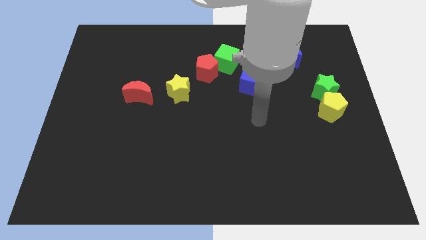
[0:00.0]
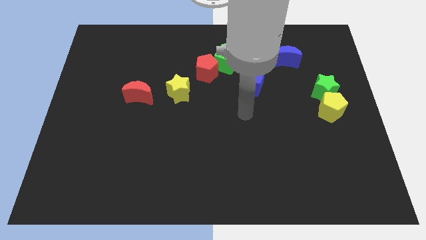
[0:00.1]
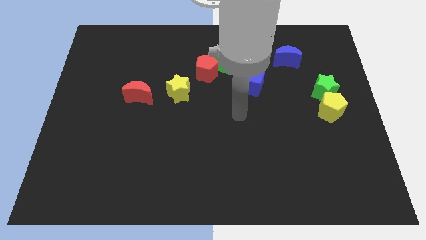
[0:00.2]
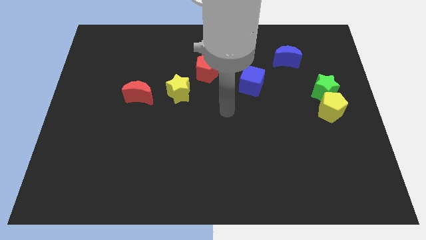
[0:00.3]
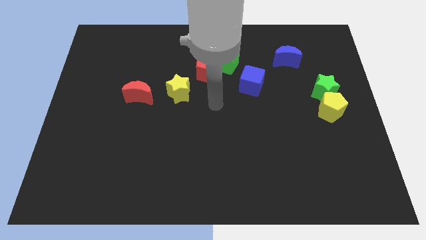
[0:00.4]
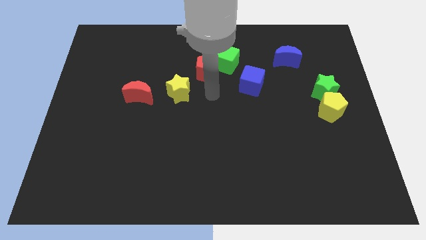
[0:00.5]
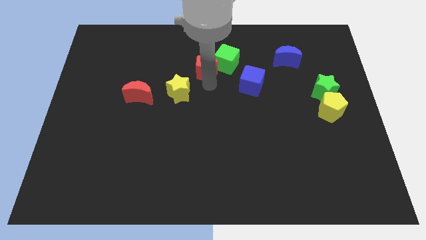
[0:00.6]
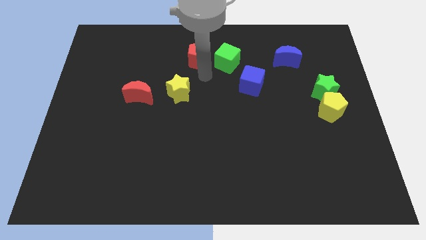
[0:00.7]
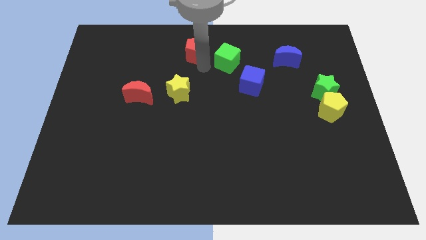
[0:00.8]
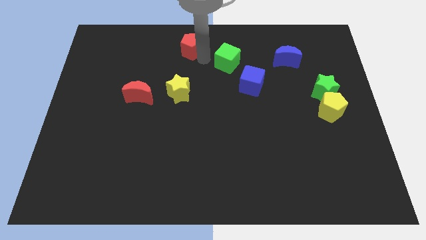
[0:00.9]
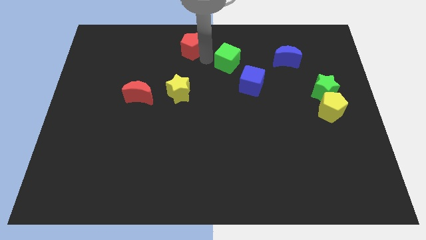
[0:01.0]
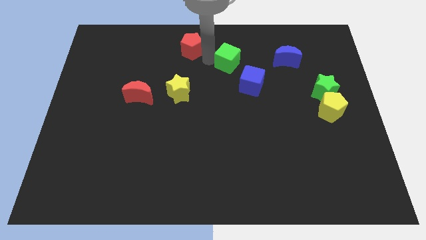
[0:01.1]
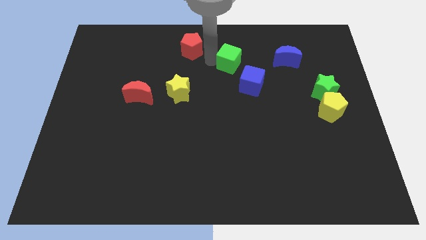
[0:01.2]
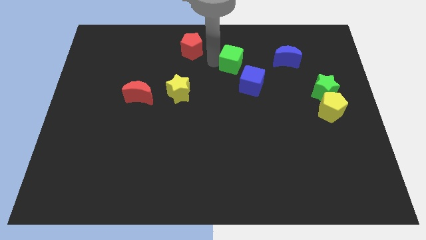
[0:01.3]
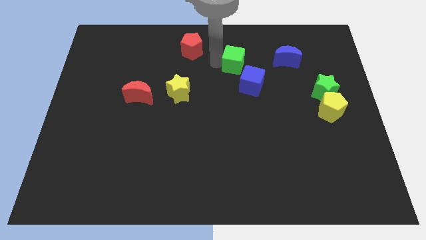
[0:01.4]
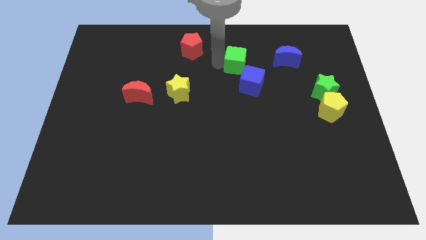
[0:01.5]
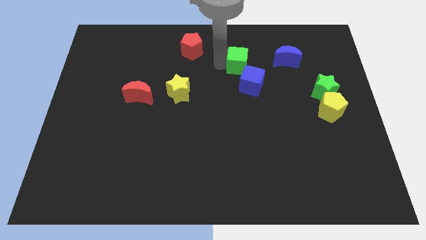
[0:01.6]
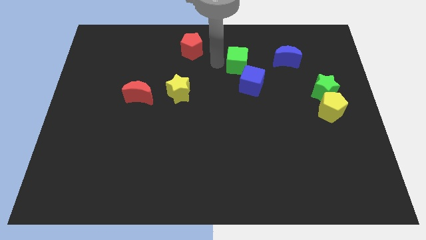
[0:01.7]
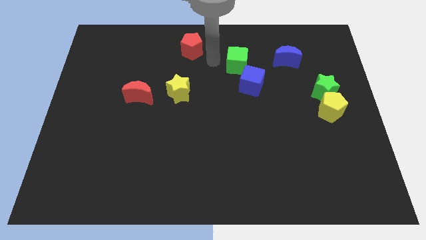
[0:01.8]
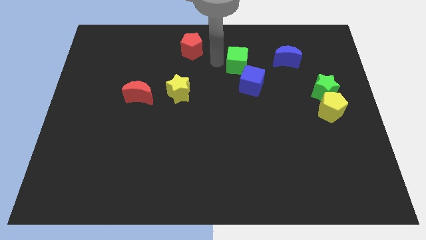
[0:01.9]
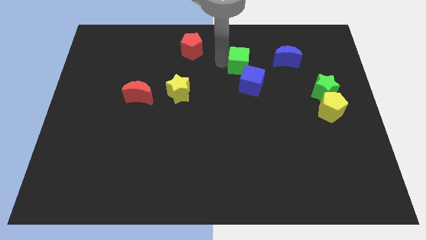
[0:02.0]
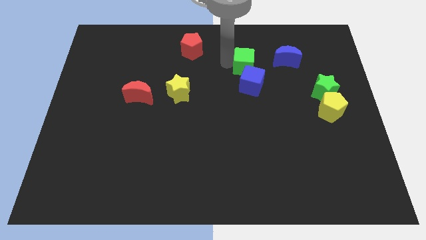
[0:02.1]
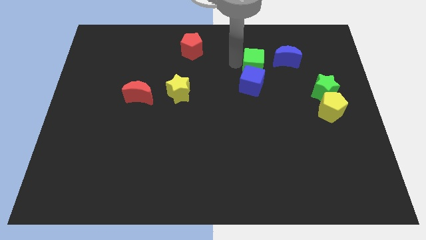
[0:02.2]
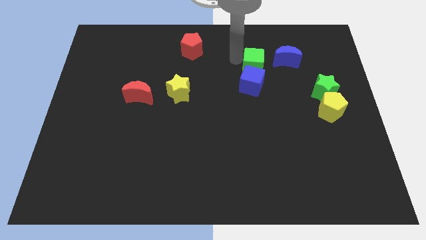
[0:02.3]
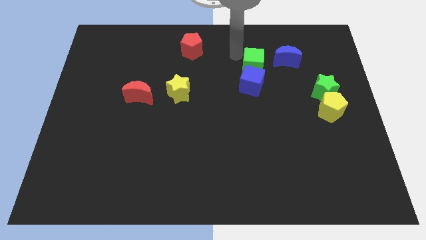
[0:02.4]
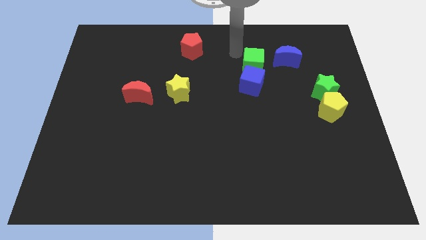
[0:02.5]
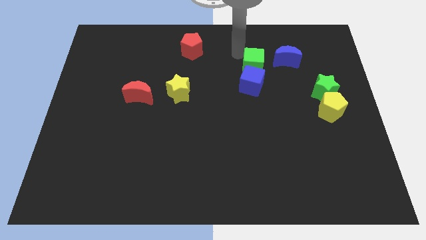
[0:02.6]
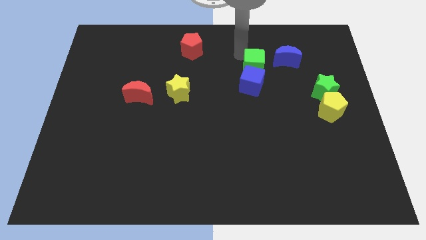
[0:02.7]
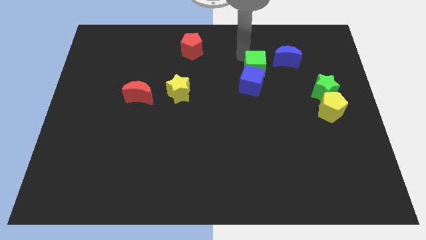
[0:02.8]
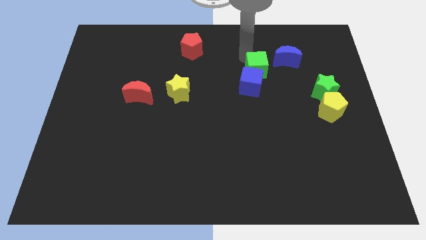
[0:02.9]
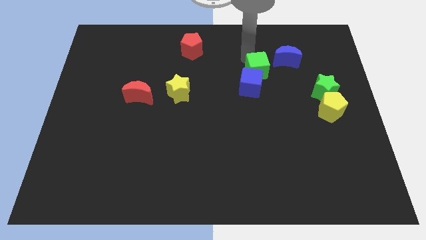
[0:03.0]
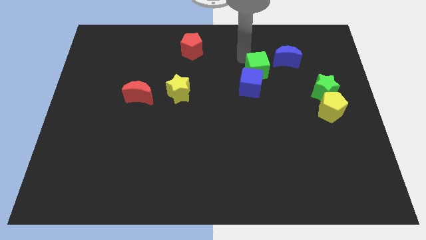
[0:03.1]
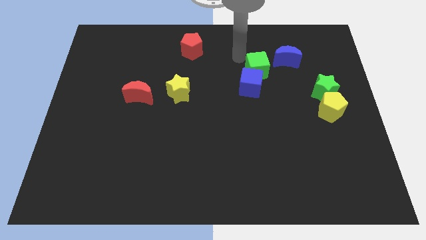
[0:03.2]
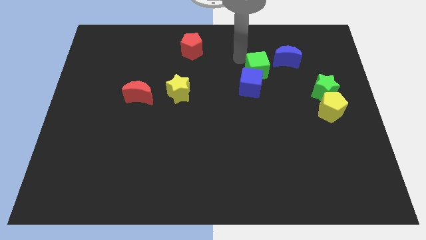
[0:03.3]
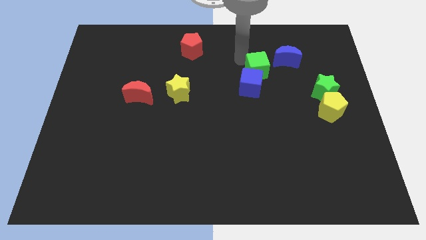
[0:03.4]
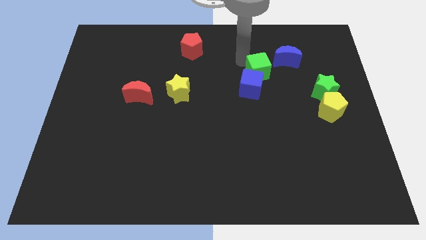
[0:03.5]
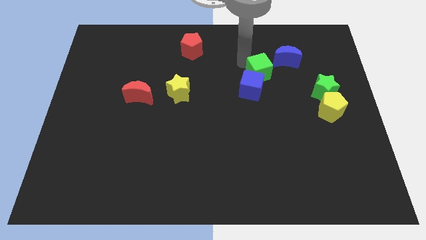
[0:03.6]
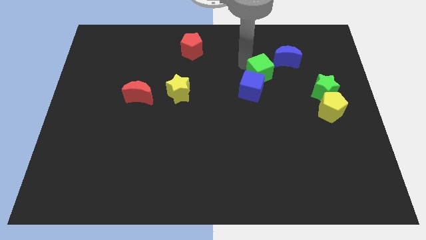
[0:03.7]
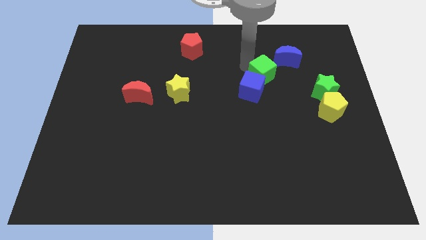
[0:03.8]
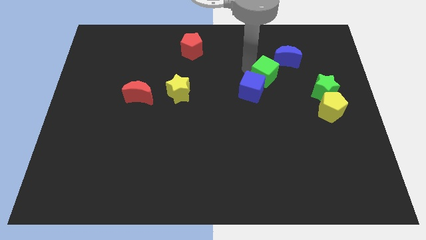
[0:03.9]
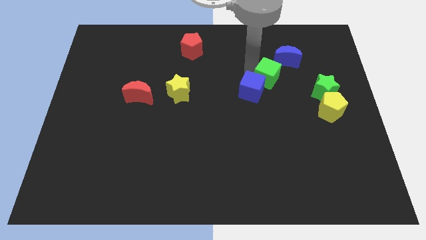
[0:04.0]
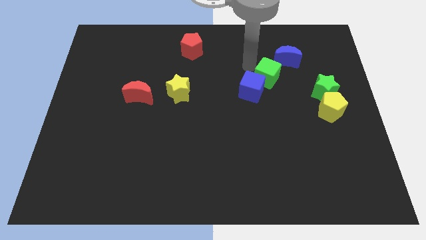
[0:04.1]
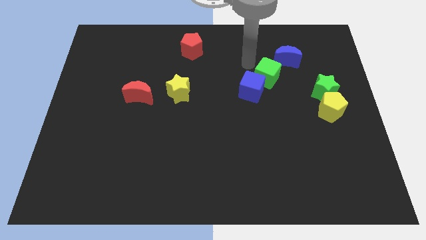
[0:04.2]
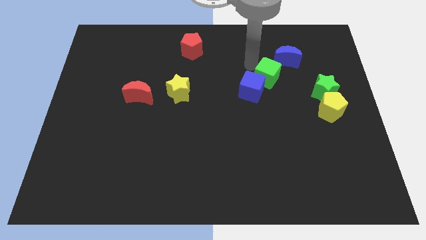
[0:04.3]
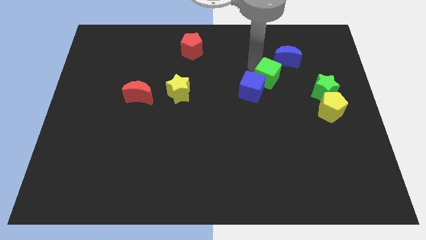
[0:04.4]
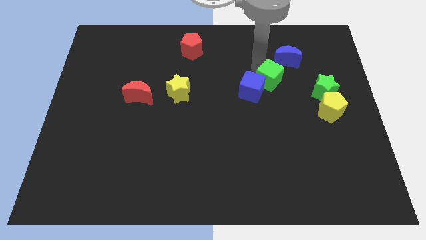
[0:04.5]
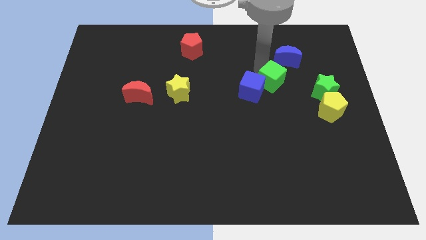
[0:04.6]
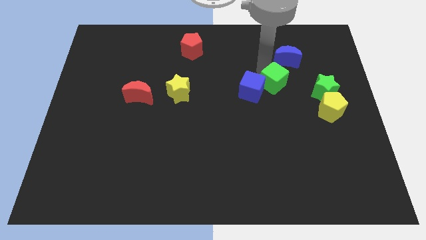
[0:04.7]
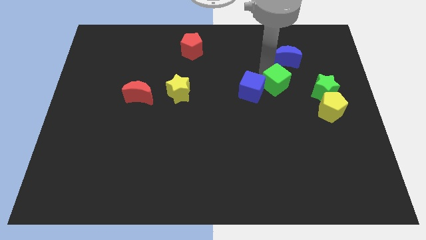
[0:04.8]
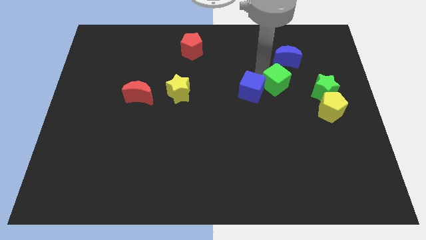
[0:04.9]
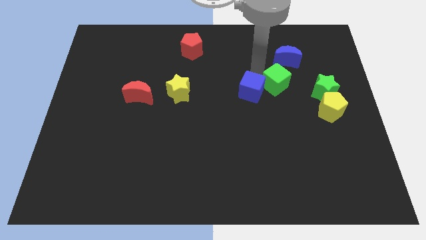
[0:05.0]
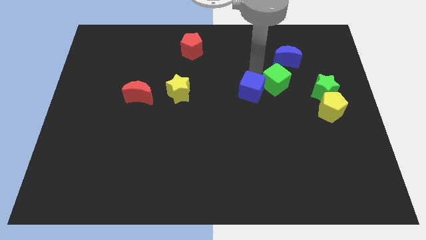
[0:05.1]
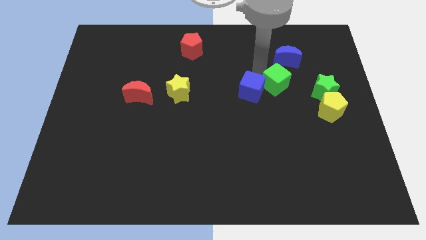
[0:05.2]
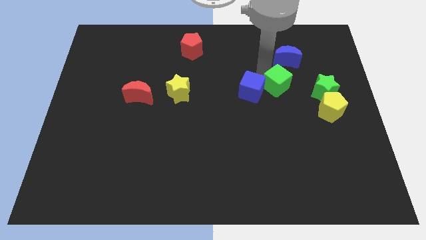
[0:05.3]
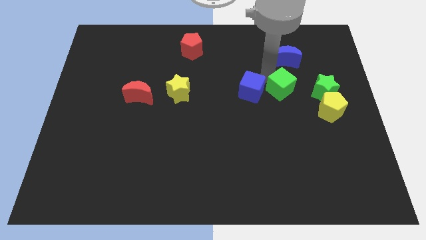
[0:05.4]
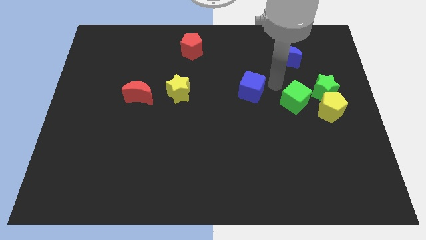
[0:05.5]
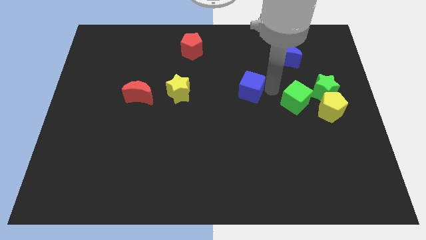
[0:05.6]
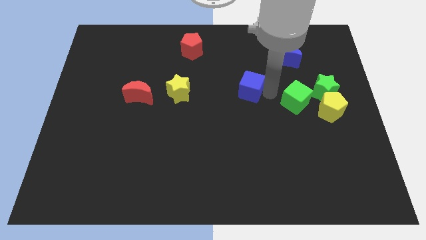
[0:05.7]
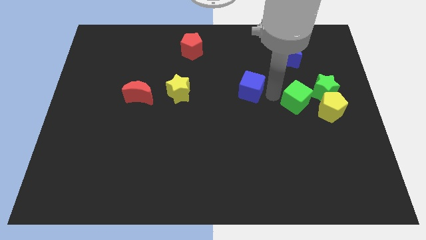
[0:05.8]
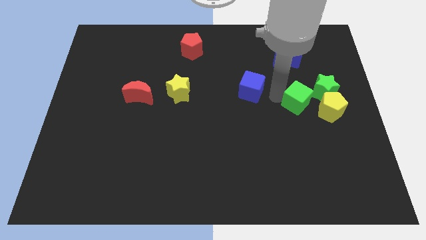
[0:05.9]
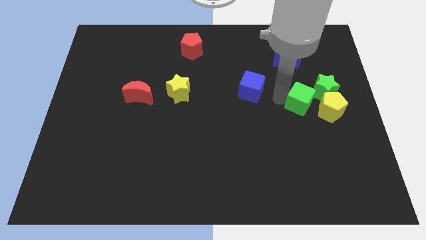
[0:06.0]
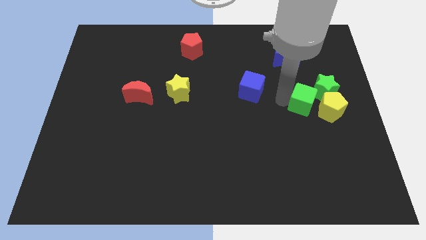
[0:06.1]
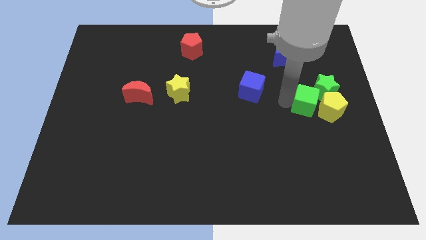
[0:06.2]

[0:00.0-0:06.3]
move the green cube towards the yellow pentagon
